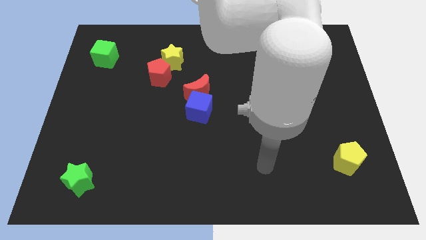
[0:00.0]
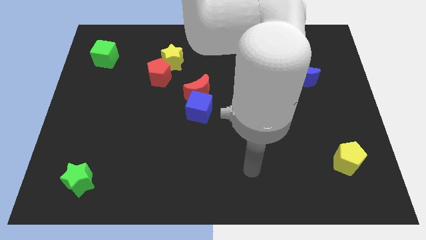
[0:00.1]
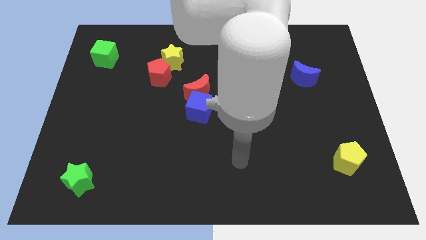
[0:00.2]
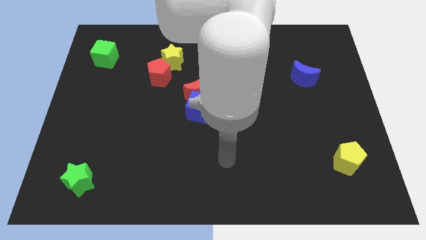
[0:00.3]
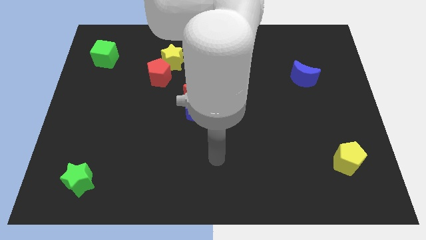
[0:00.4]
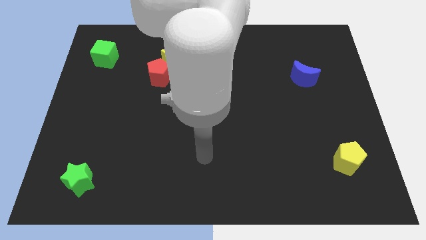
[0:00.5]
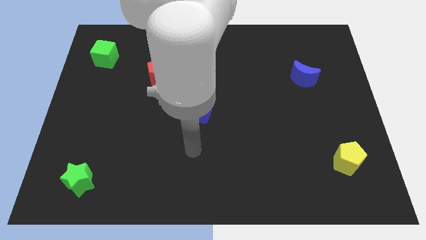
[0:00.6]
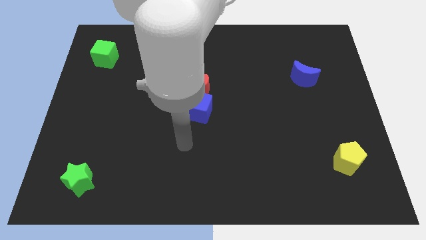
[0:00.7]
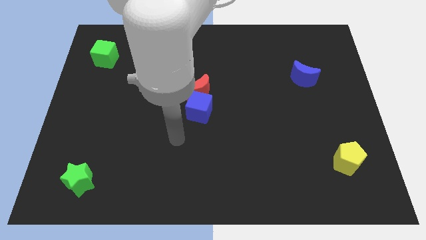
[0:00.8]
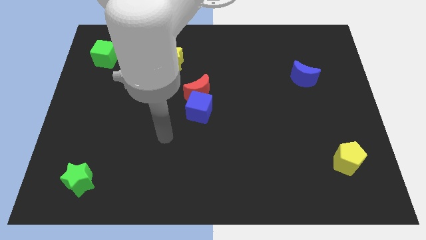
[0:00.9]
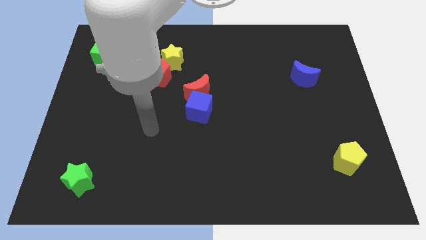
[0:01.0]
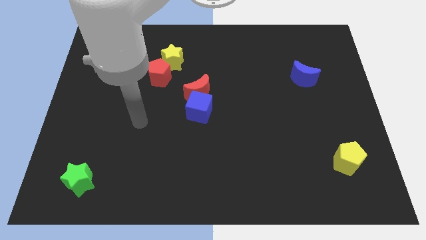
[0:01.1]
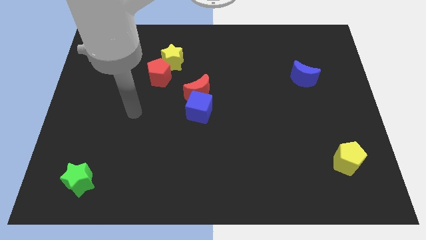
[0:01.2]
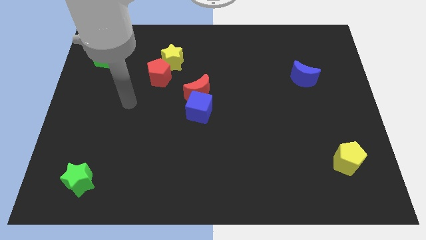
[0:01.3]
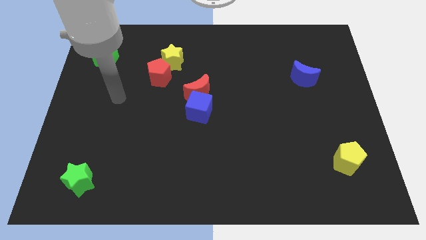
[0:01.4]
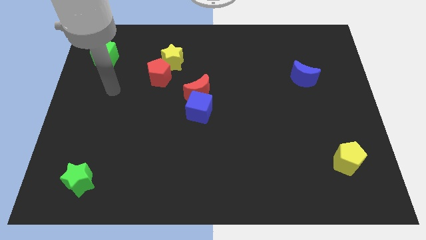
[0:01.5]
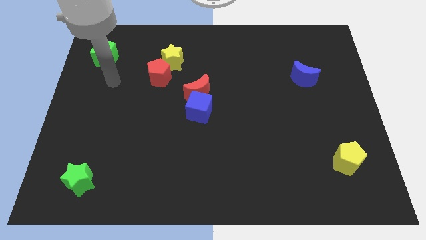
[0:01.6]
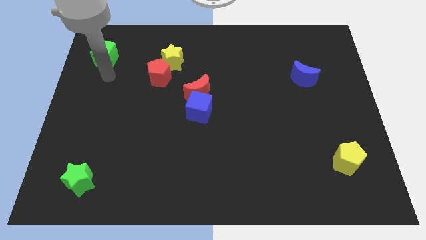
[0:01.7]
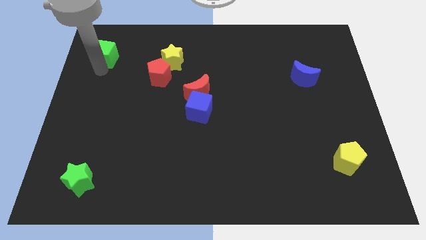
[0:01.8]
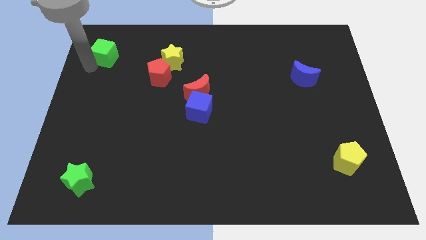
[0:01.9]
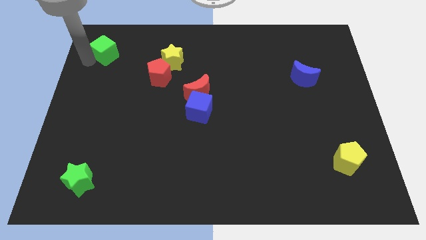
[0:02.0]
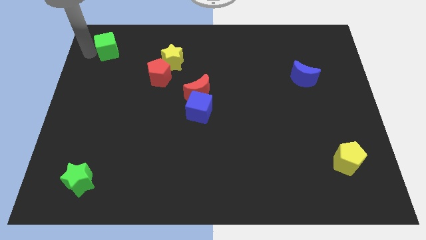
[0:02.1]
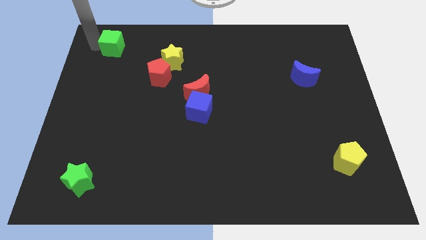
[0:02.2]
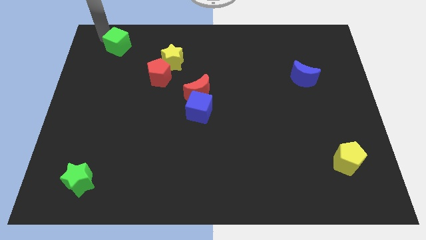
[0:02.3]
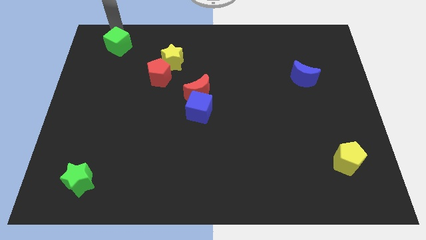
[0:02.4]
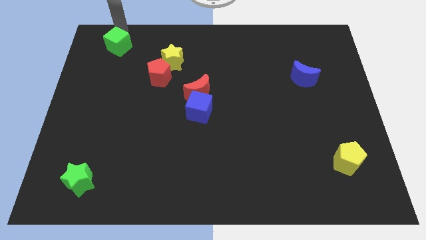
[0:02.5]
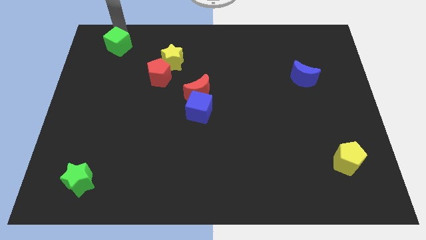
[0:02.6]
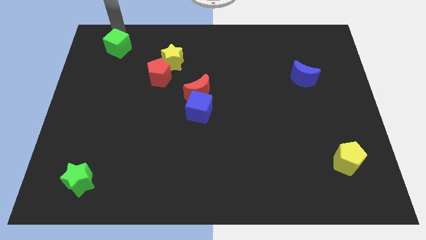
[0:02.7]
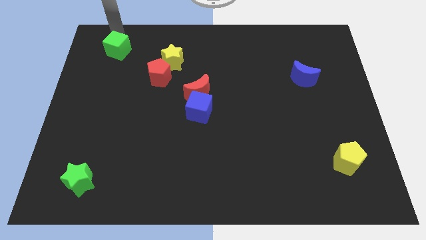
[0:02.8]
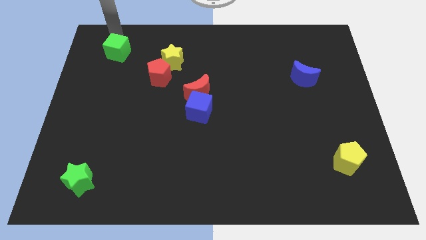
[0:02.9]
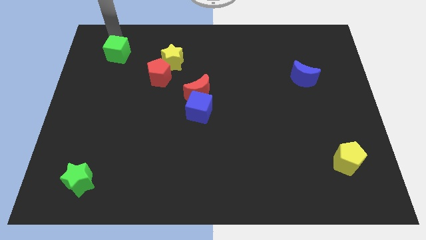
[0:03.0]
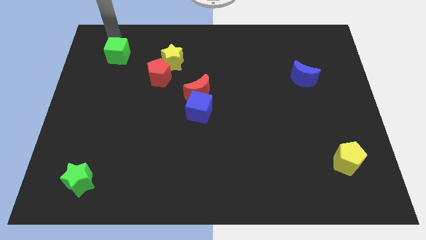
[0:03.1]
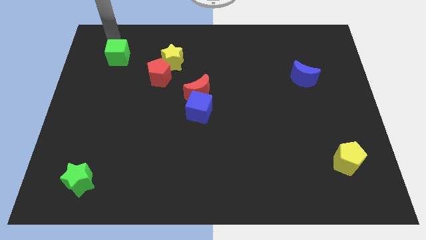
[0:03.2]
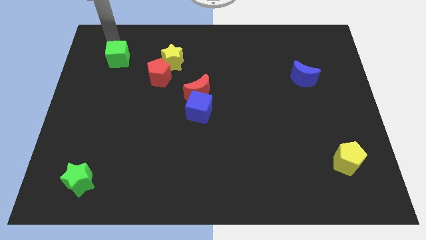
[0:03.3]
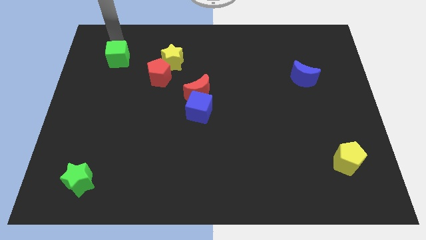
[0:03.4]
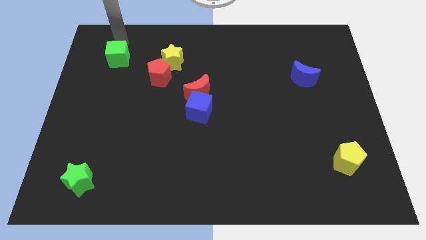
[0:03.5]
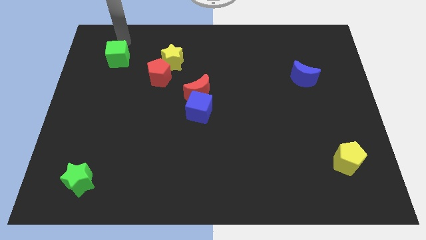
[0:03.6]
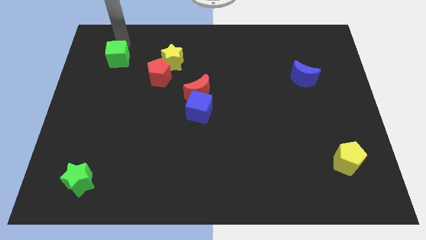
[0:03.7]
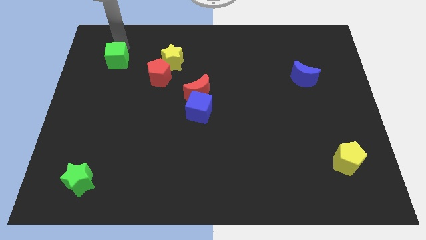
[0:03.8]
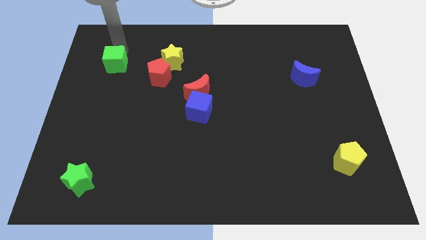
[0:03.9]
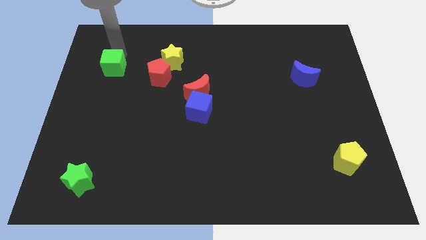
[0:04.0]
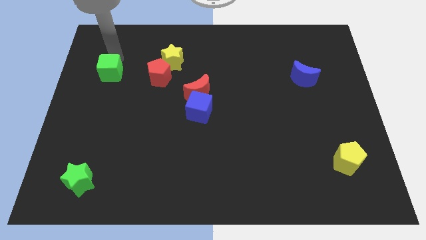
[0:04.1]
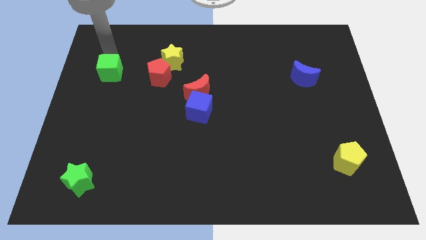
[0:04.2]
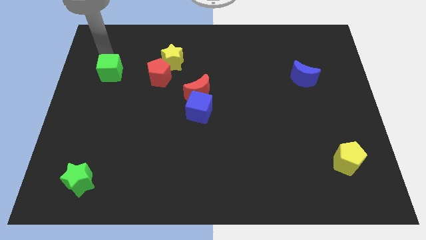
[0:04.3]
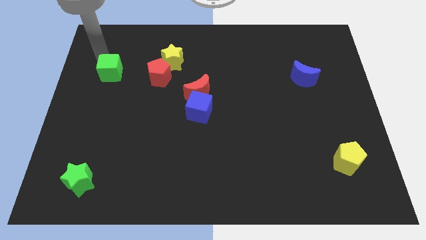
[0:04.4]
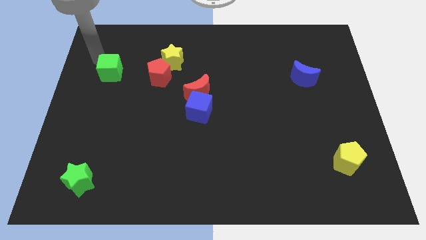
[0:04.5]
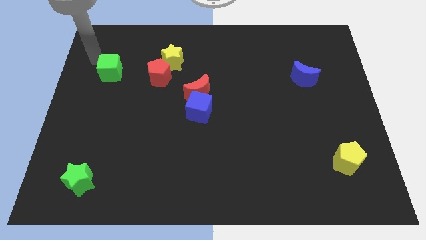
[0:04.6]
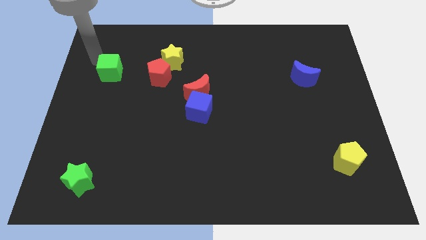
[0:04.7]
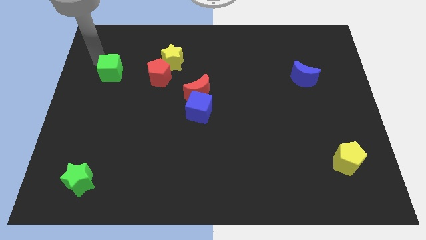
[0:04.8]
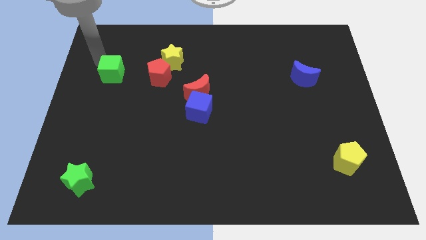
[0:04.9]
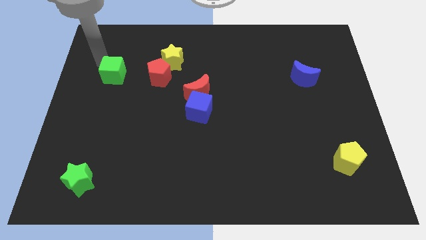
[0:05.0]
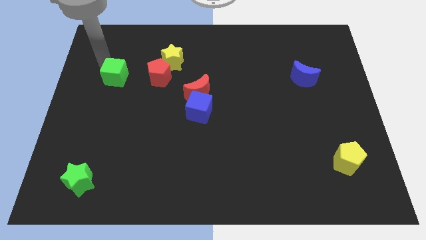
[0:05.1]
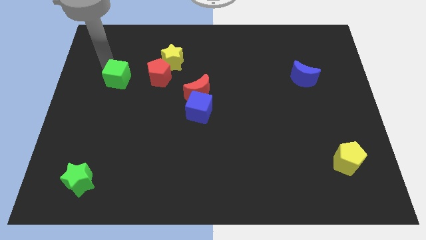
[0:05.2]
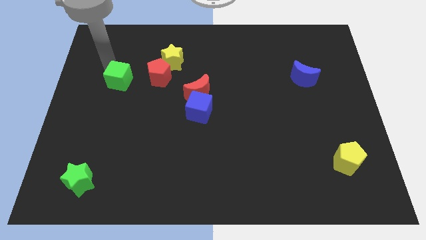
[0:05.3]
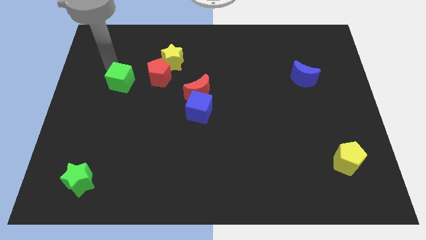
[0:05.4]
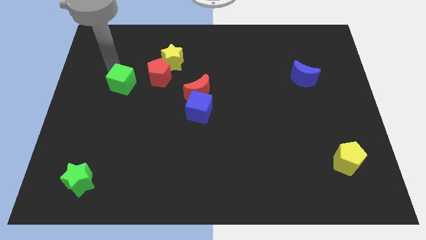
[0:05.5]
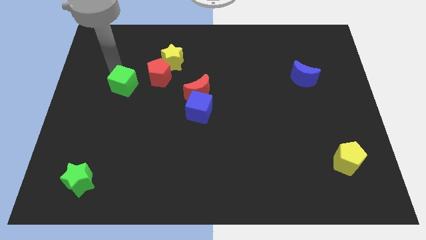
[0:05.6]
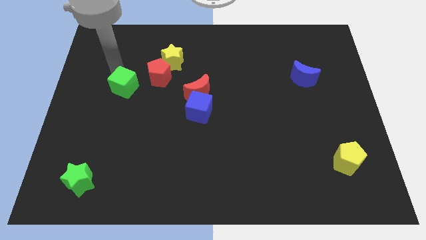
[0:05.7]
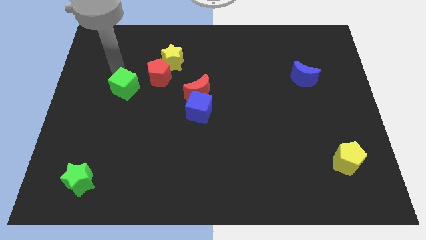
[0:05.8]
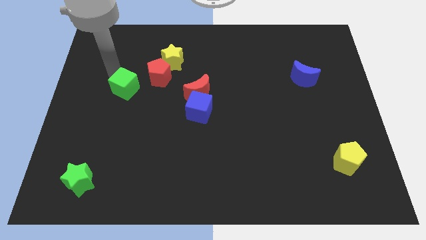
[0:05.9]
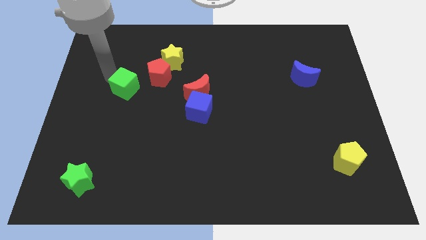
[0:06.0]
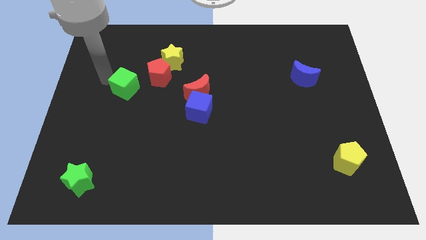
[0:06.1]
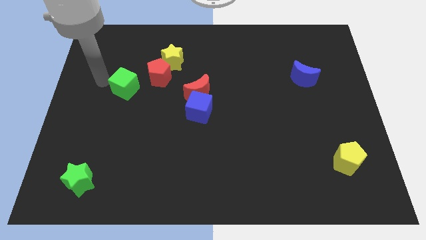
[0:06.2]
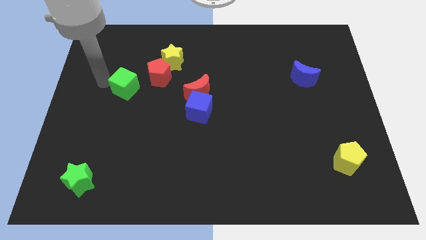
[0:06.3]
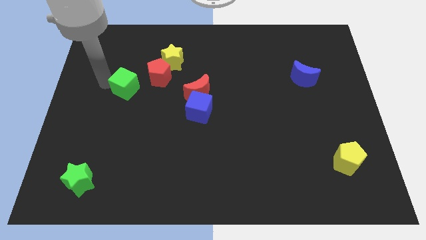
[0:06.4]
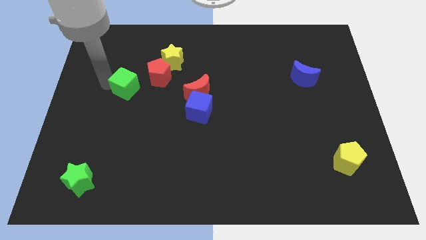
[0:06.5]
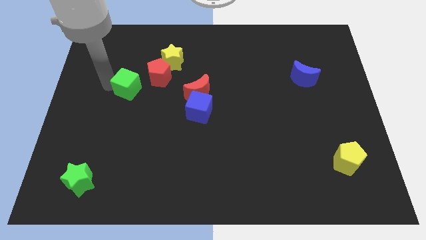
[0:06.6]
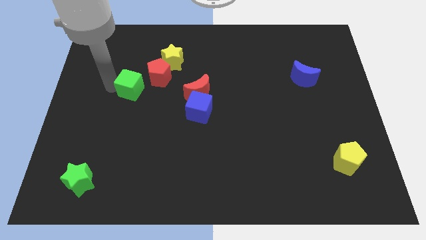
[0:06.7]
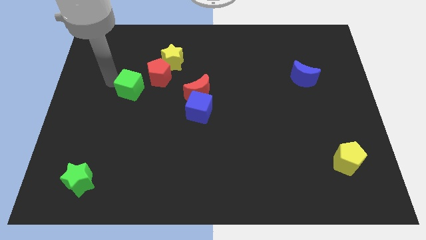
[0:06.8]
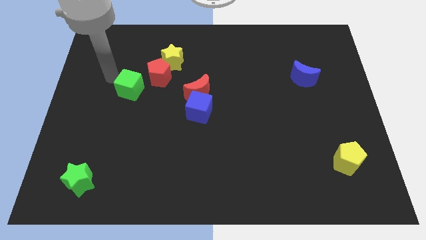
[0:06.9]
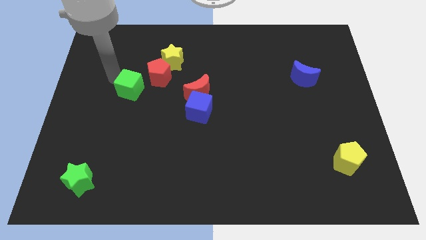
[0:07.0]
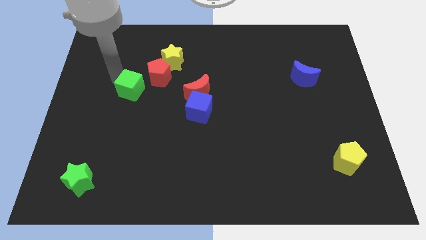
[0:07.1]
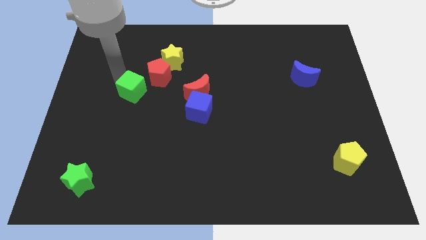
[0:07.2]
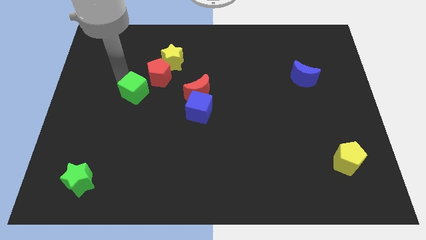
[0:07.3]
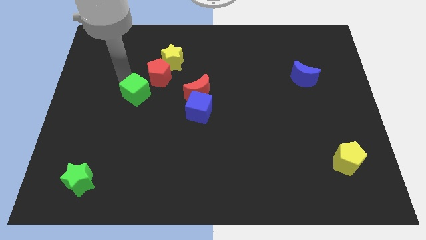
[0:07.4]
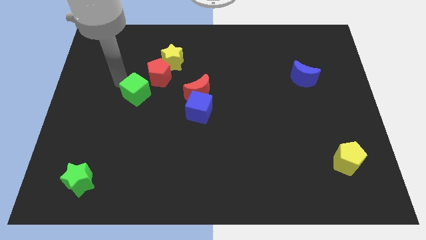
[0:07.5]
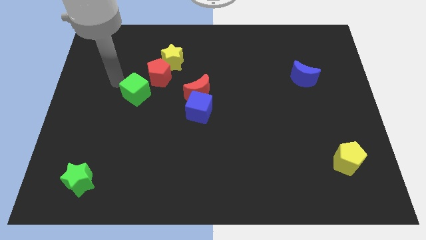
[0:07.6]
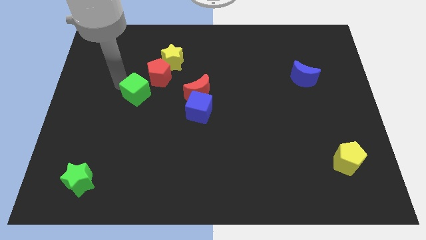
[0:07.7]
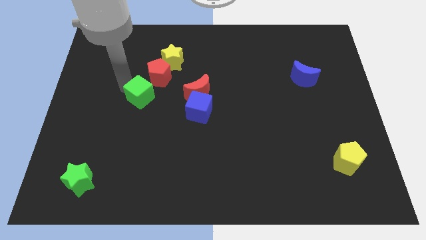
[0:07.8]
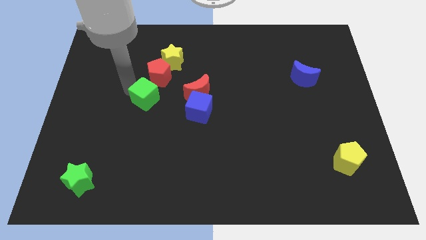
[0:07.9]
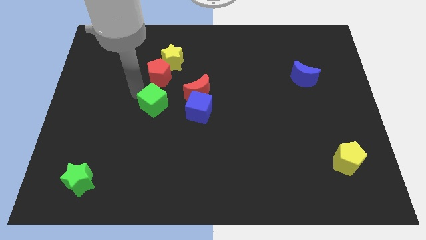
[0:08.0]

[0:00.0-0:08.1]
slide the green cube diagonally downwards and right
